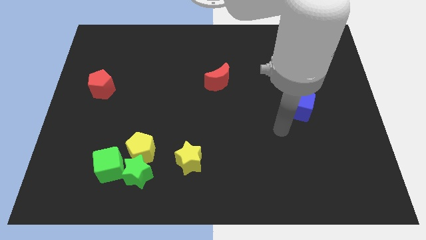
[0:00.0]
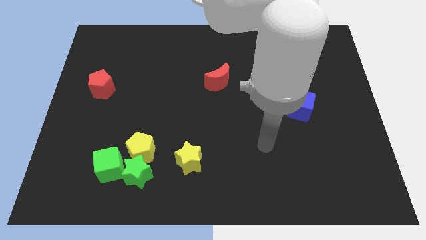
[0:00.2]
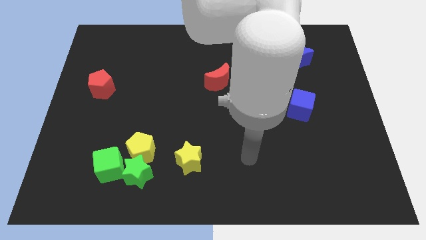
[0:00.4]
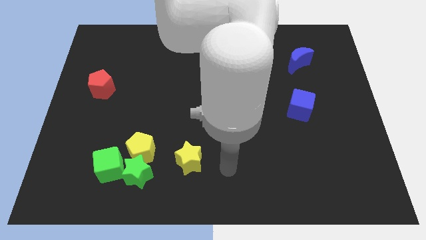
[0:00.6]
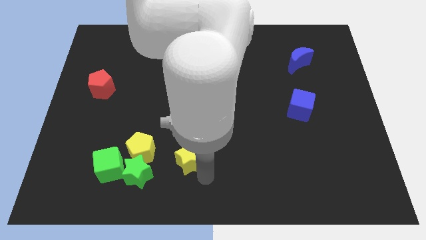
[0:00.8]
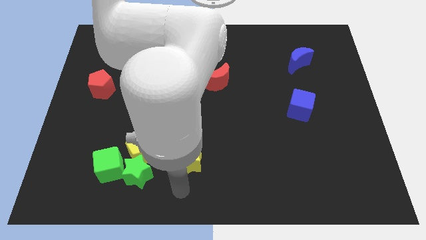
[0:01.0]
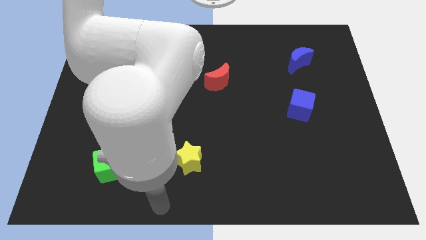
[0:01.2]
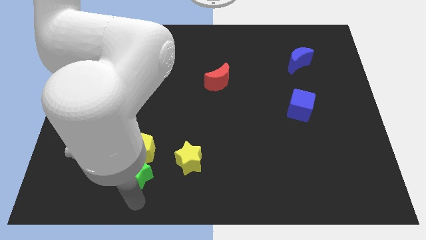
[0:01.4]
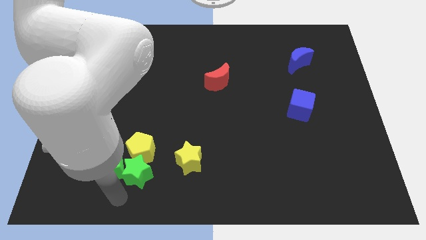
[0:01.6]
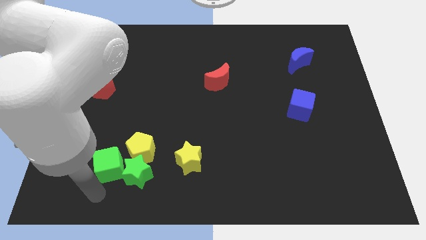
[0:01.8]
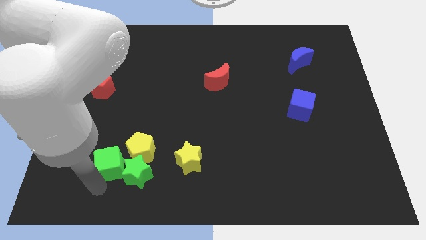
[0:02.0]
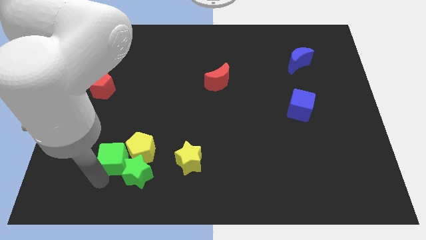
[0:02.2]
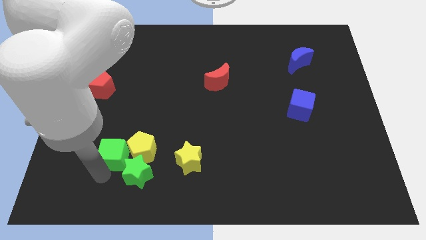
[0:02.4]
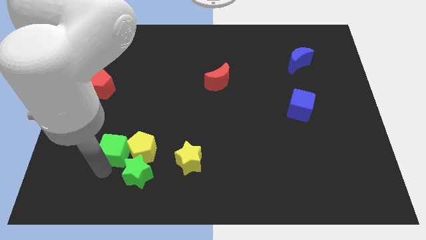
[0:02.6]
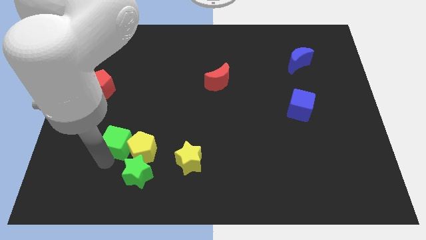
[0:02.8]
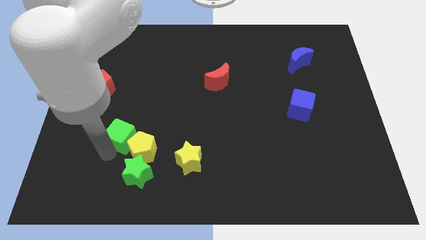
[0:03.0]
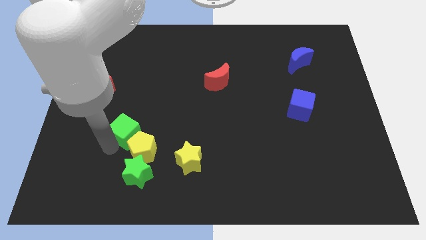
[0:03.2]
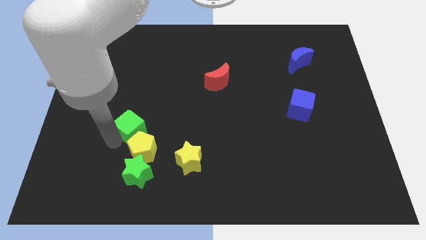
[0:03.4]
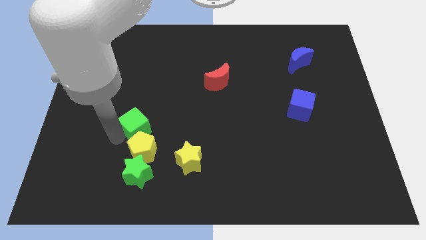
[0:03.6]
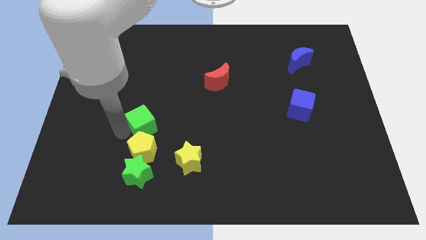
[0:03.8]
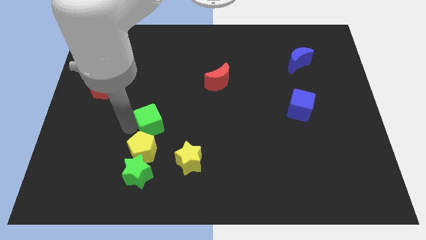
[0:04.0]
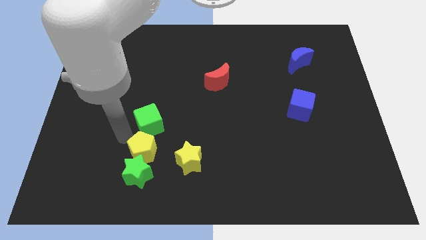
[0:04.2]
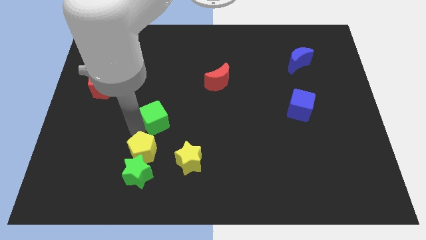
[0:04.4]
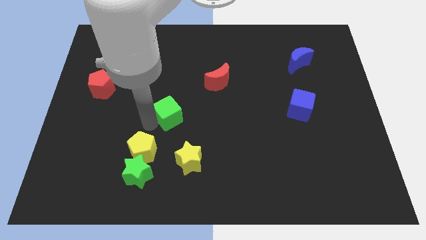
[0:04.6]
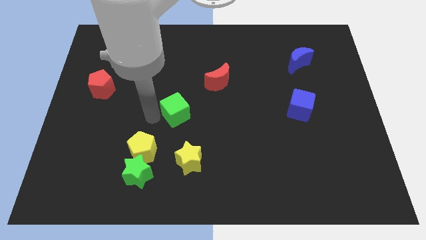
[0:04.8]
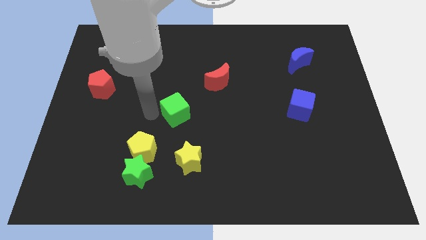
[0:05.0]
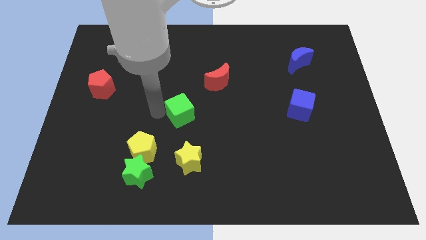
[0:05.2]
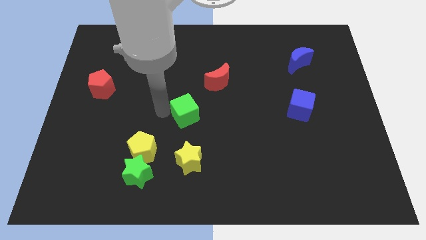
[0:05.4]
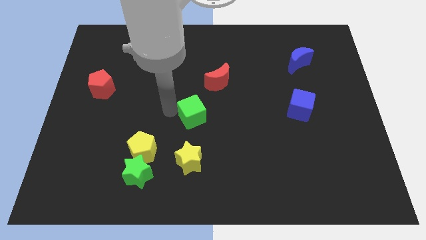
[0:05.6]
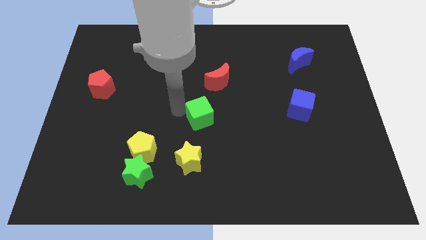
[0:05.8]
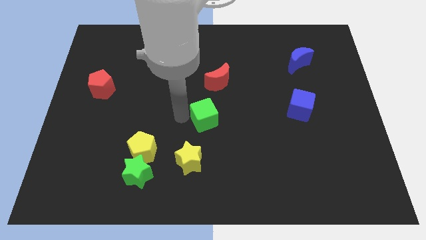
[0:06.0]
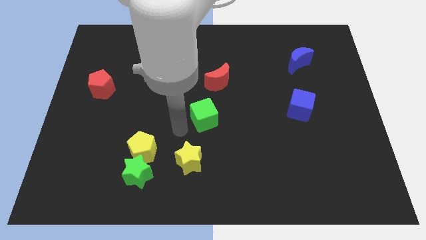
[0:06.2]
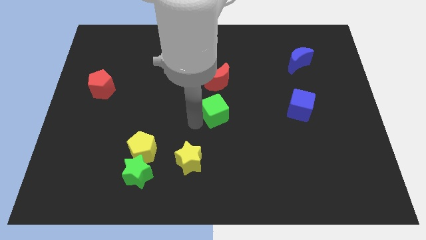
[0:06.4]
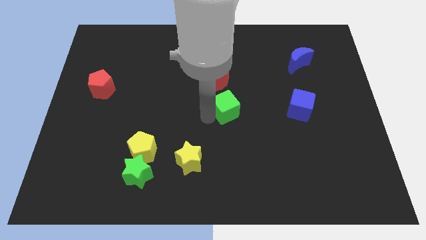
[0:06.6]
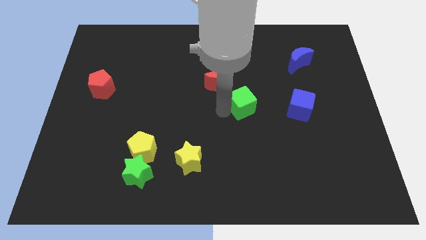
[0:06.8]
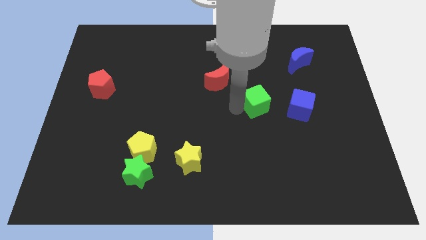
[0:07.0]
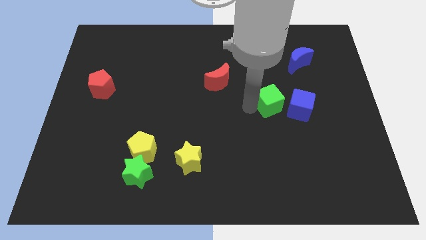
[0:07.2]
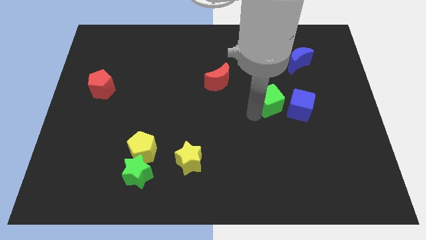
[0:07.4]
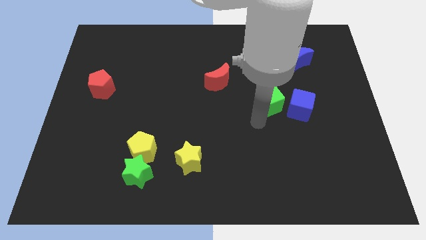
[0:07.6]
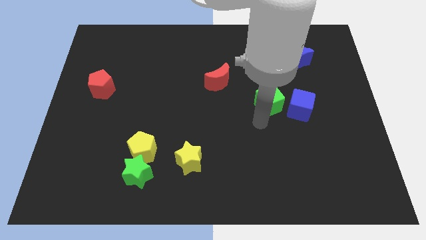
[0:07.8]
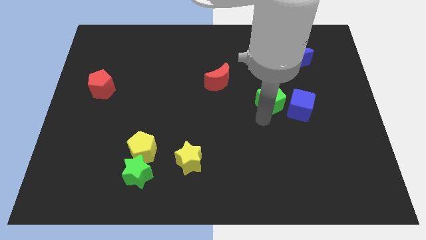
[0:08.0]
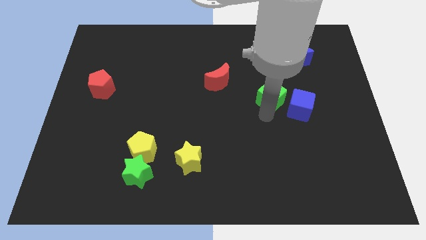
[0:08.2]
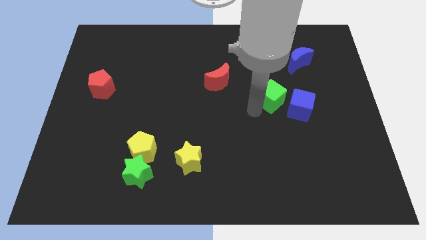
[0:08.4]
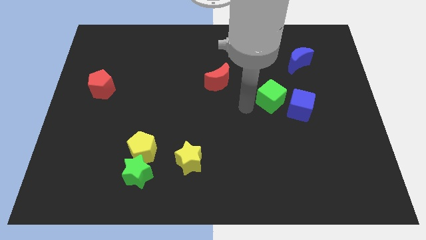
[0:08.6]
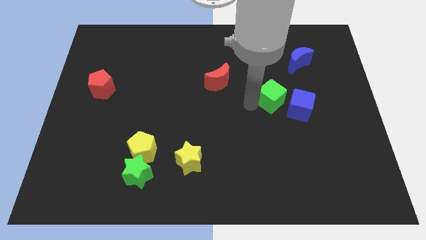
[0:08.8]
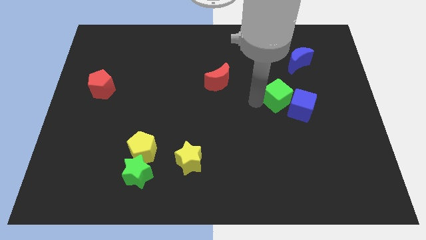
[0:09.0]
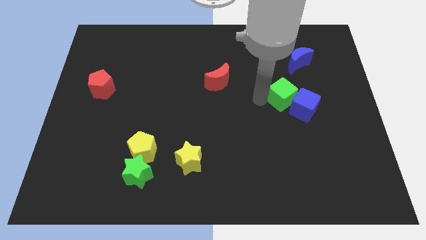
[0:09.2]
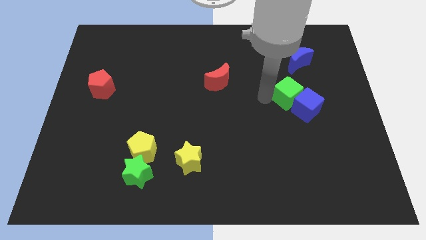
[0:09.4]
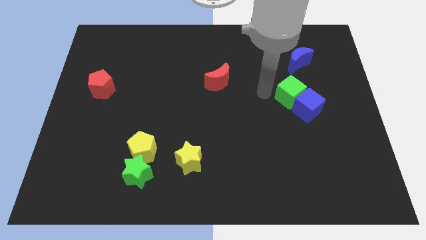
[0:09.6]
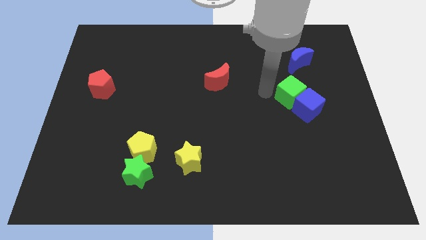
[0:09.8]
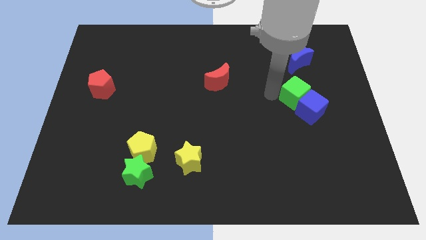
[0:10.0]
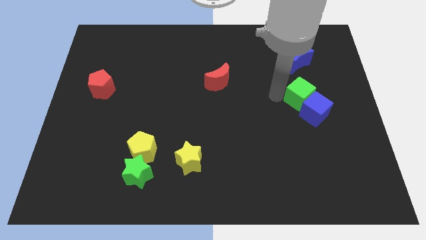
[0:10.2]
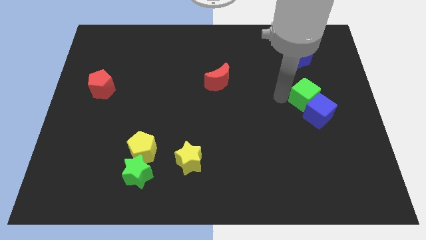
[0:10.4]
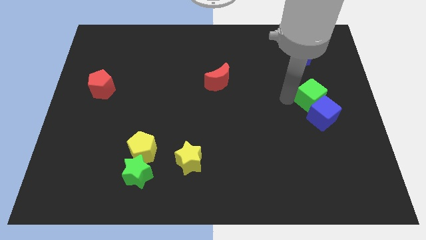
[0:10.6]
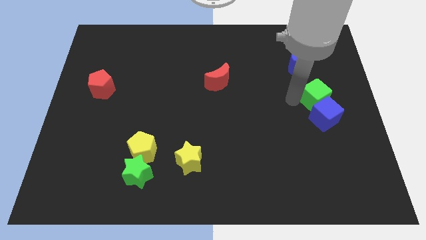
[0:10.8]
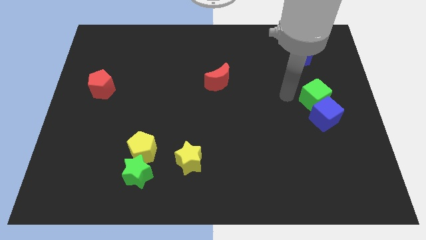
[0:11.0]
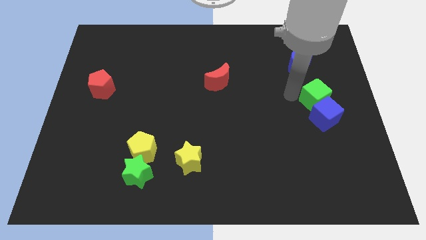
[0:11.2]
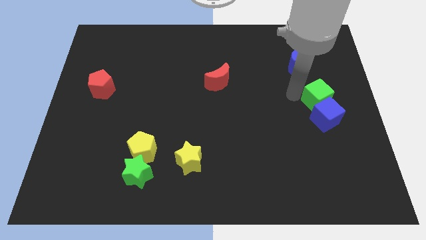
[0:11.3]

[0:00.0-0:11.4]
put the green cube to the right side

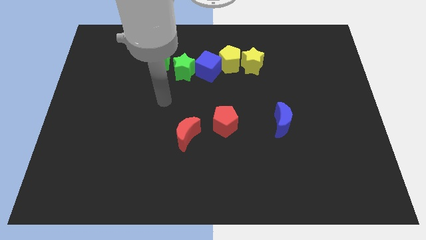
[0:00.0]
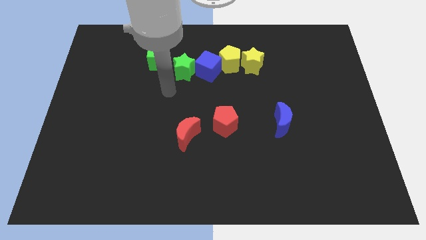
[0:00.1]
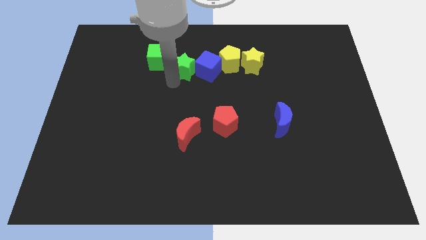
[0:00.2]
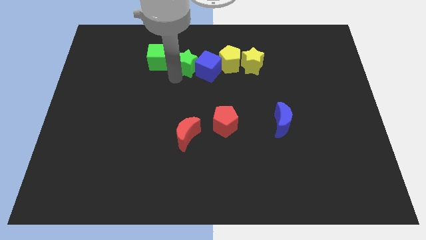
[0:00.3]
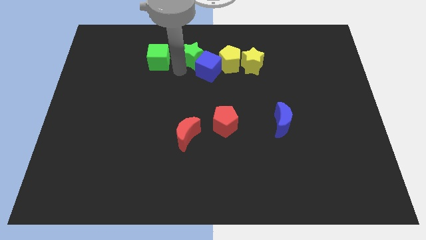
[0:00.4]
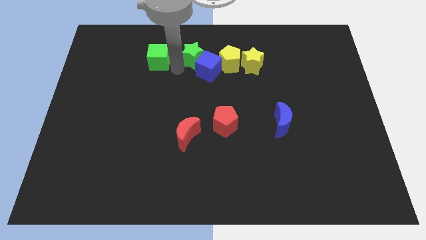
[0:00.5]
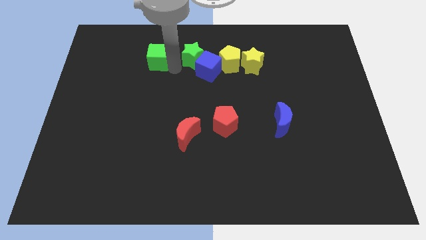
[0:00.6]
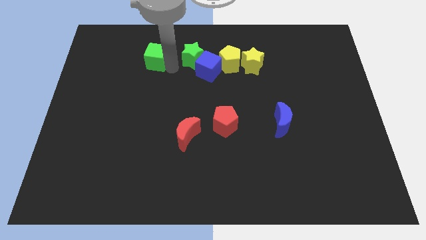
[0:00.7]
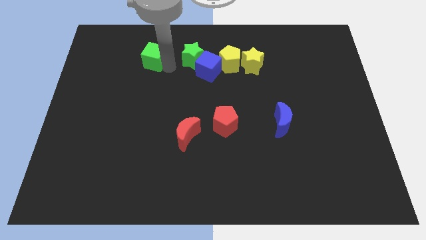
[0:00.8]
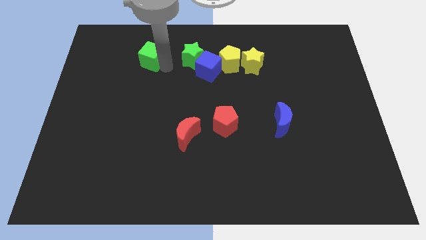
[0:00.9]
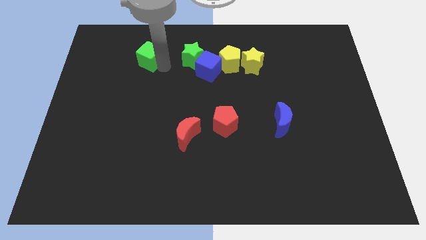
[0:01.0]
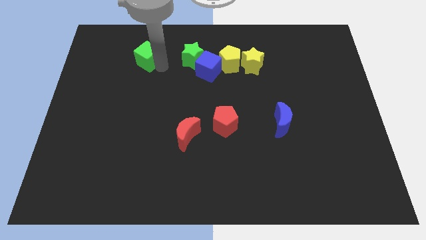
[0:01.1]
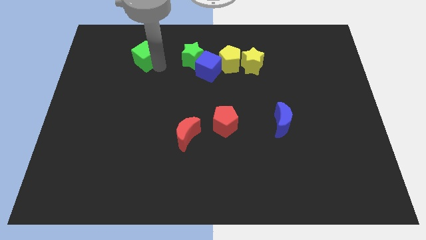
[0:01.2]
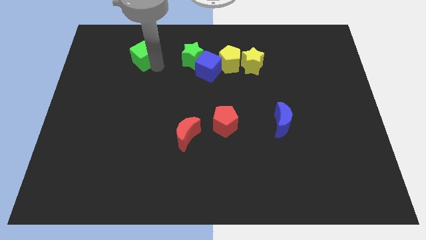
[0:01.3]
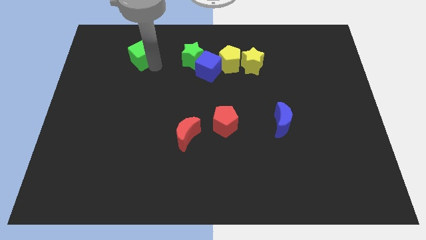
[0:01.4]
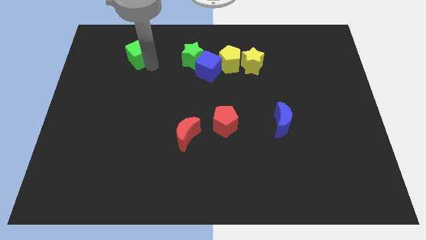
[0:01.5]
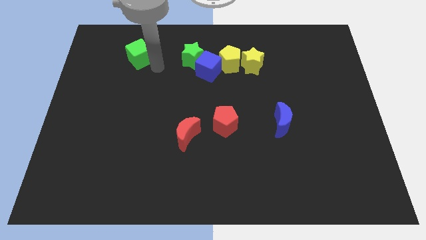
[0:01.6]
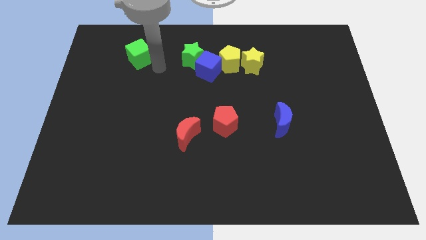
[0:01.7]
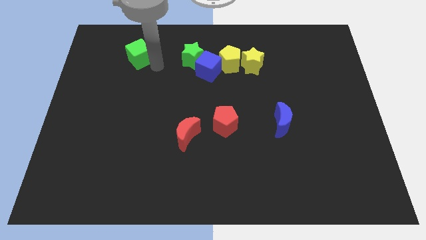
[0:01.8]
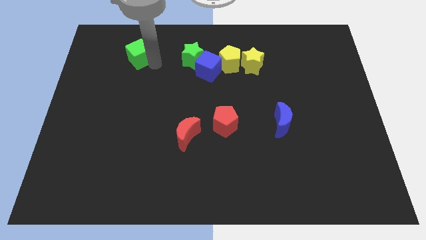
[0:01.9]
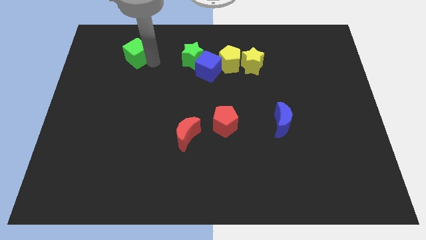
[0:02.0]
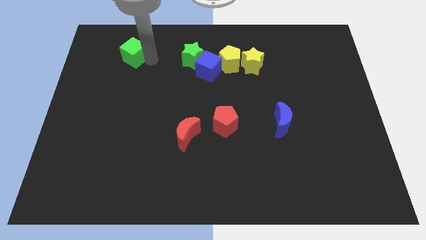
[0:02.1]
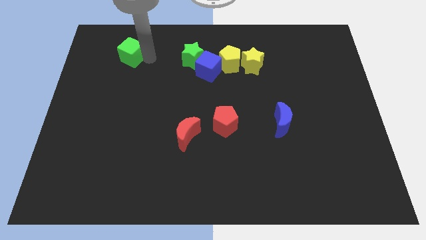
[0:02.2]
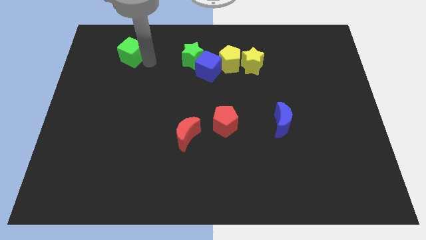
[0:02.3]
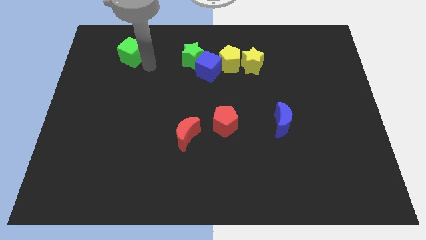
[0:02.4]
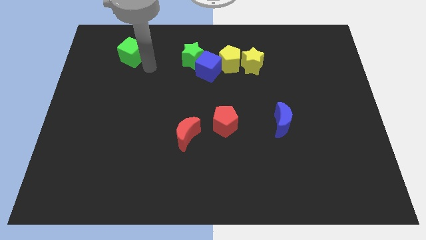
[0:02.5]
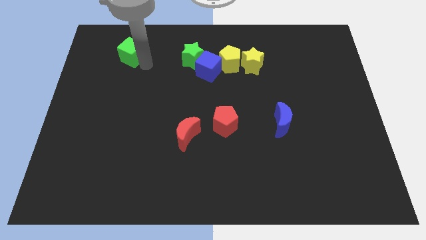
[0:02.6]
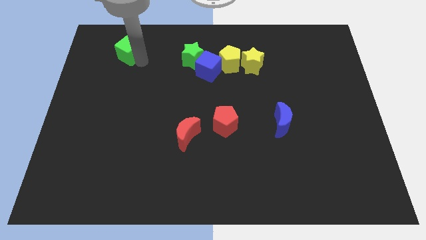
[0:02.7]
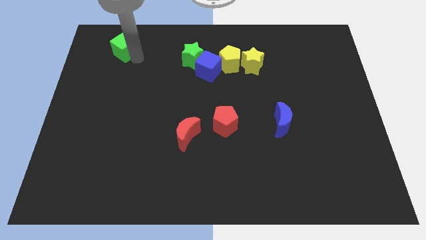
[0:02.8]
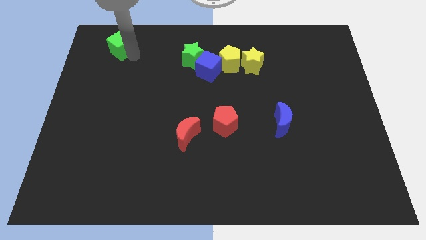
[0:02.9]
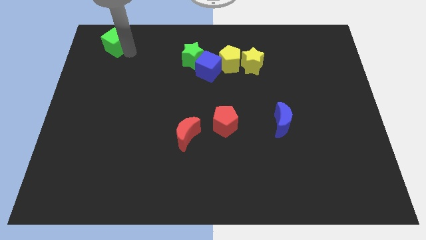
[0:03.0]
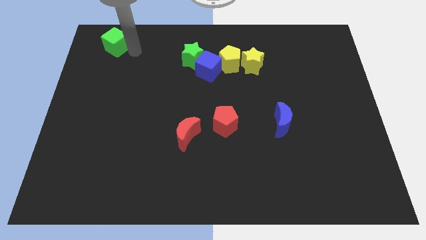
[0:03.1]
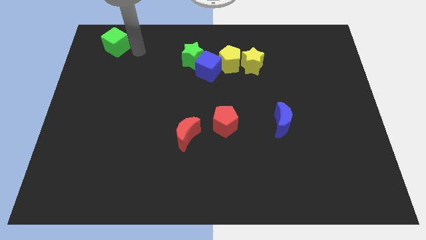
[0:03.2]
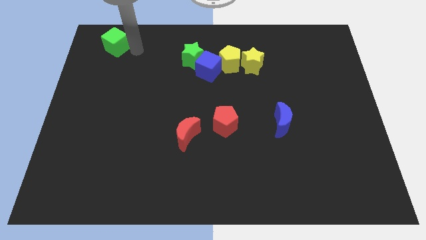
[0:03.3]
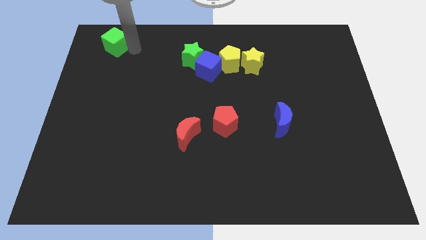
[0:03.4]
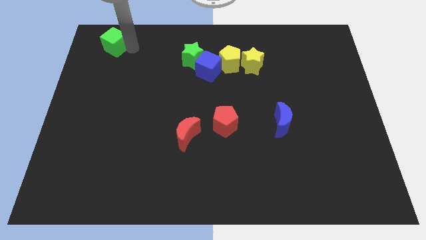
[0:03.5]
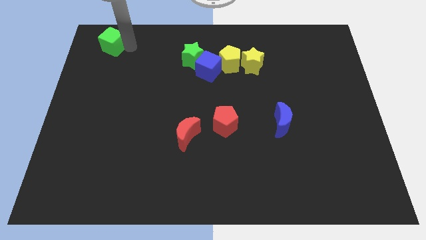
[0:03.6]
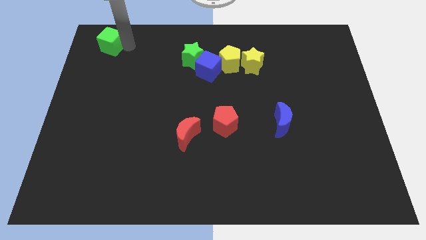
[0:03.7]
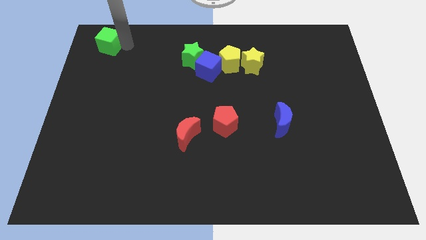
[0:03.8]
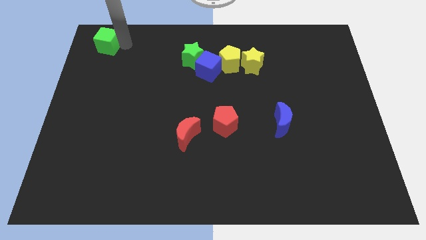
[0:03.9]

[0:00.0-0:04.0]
push the green cube to the top left
